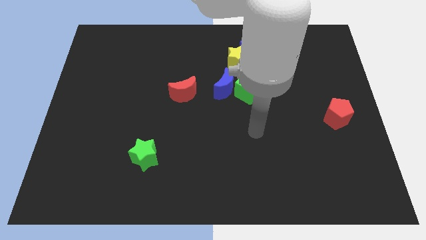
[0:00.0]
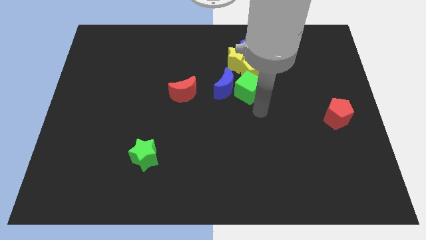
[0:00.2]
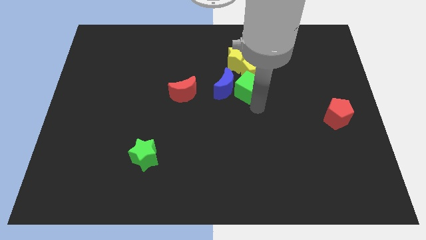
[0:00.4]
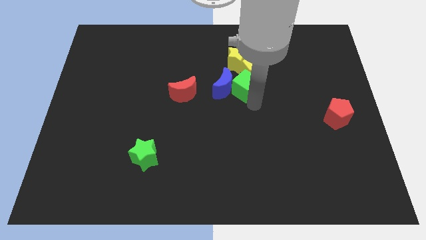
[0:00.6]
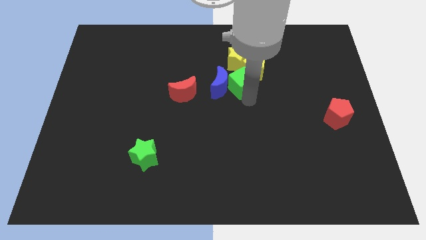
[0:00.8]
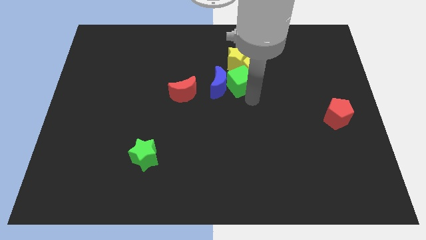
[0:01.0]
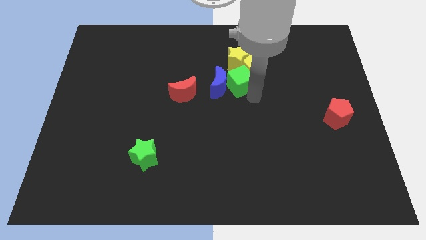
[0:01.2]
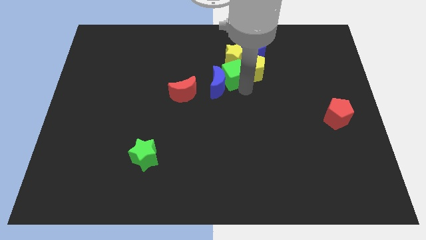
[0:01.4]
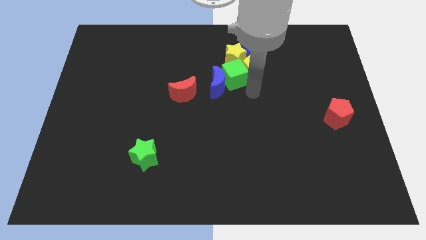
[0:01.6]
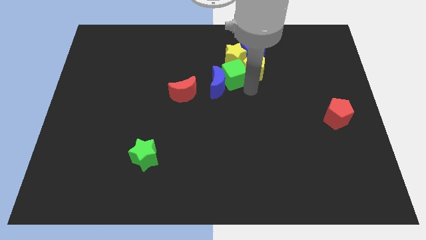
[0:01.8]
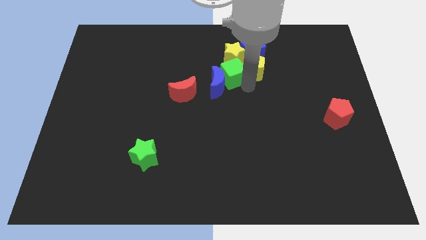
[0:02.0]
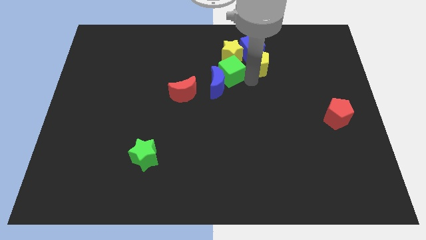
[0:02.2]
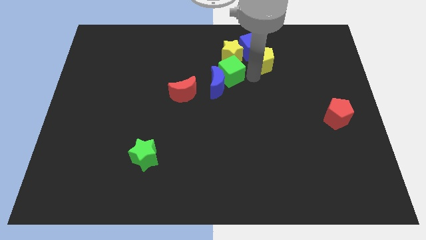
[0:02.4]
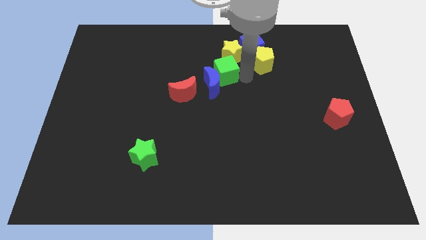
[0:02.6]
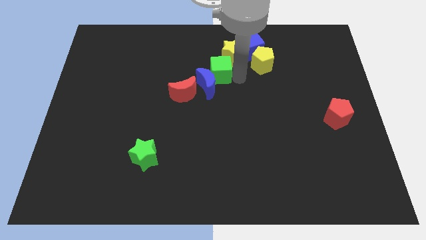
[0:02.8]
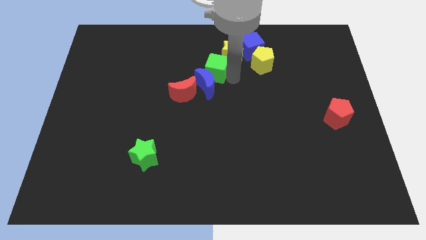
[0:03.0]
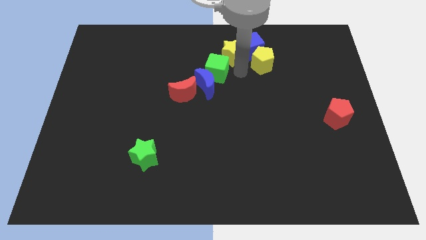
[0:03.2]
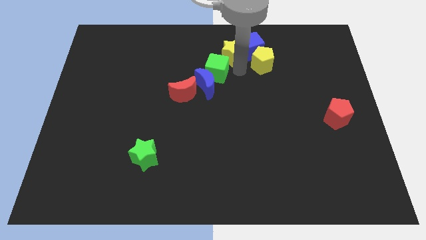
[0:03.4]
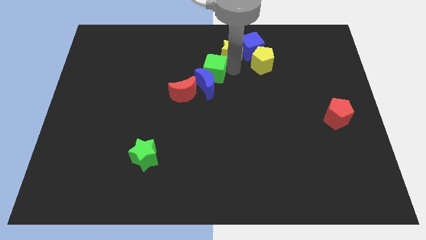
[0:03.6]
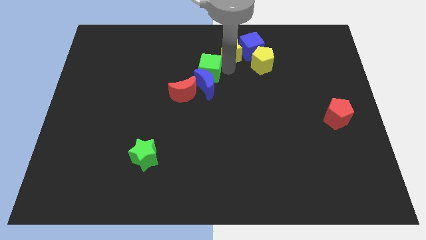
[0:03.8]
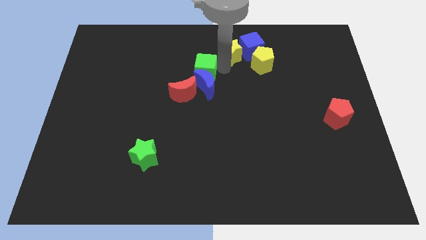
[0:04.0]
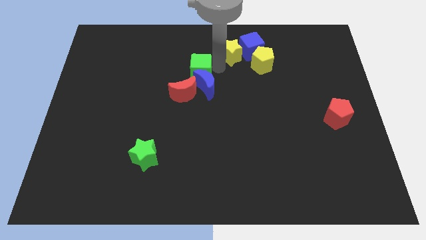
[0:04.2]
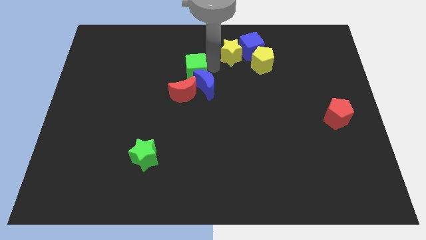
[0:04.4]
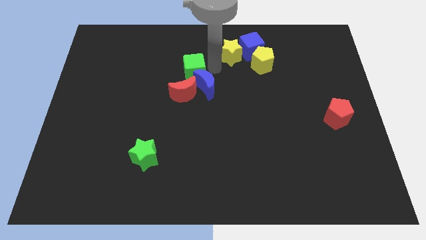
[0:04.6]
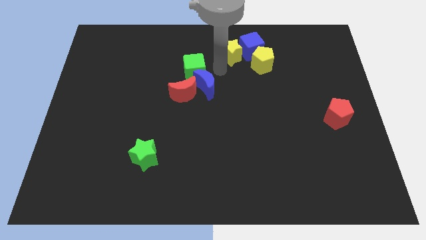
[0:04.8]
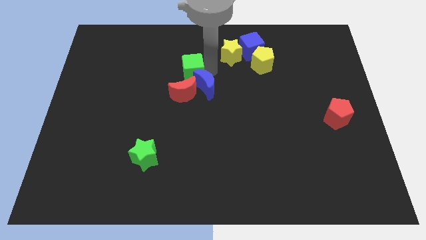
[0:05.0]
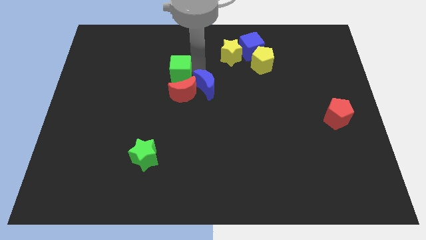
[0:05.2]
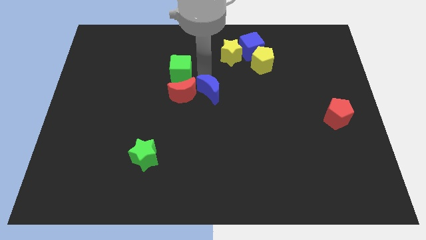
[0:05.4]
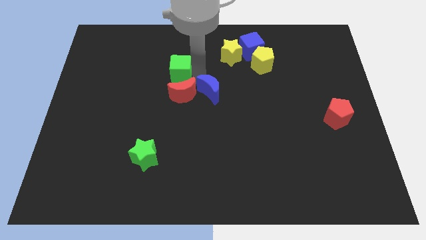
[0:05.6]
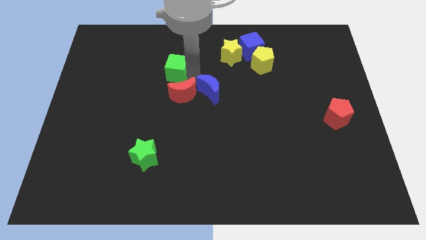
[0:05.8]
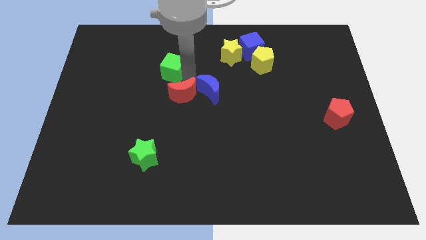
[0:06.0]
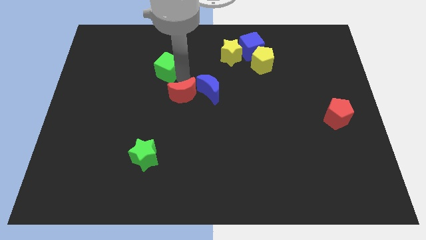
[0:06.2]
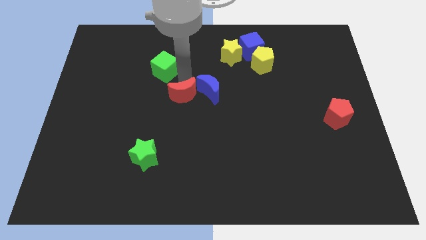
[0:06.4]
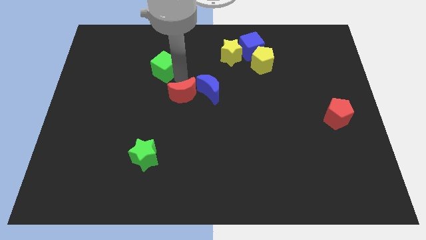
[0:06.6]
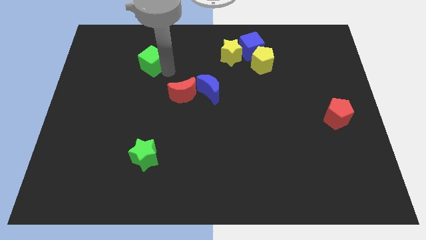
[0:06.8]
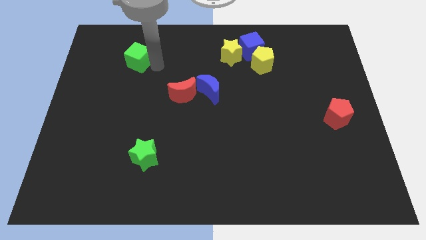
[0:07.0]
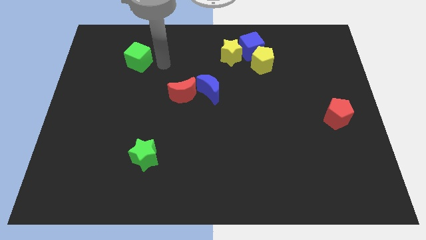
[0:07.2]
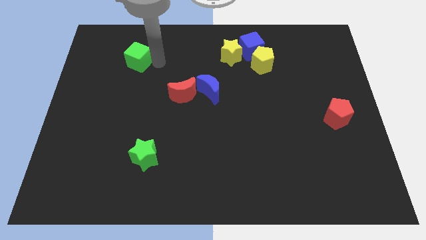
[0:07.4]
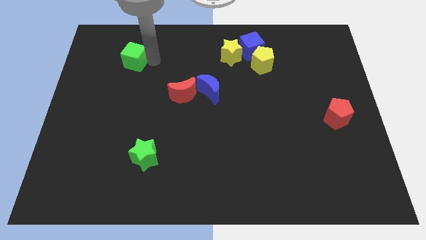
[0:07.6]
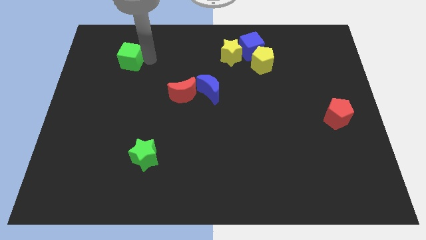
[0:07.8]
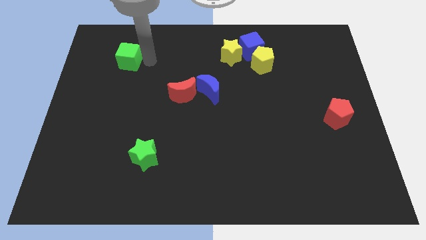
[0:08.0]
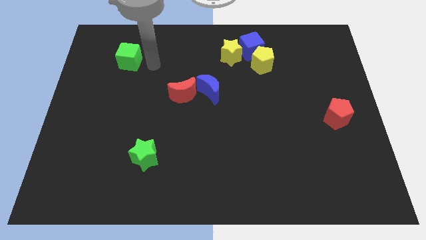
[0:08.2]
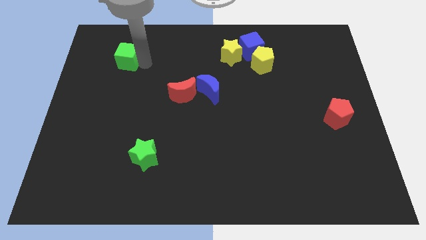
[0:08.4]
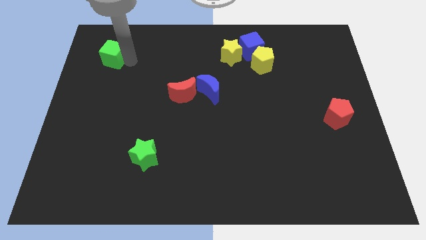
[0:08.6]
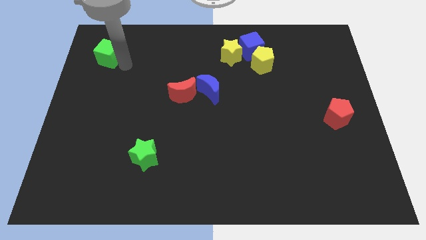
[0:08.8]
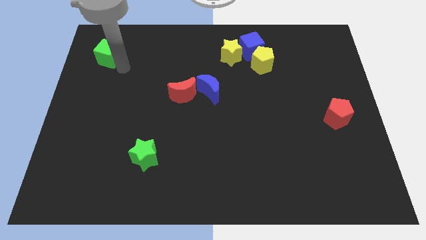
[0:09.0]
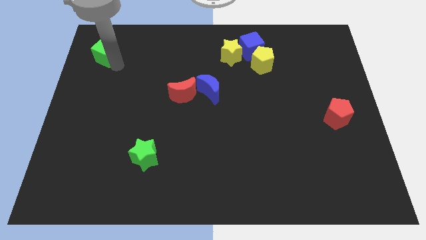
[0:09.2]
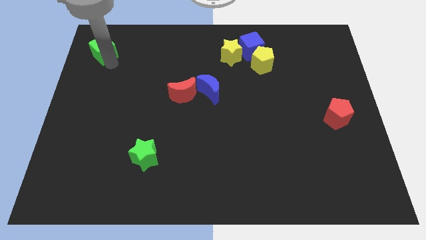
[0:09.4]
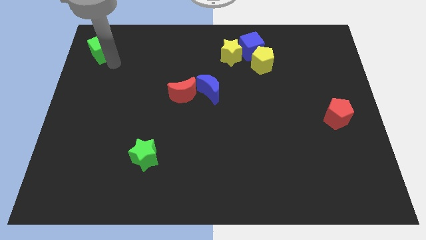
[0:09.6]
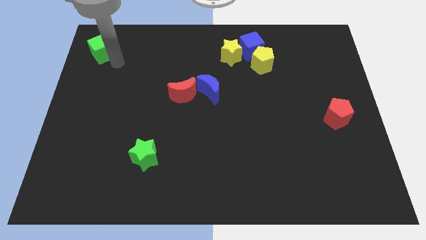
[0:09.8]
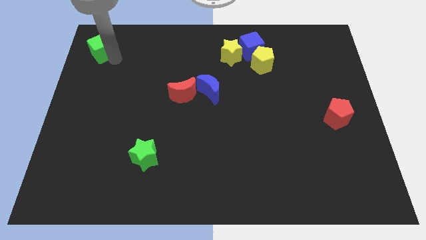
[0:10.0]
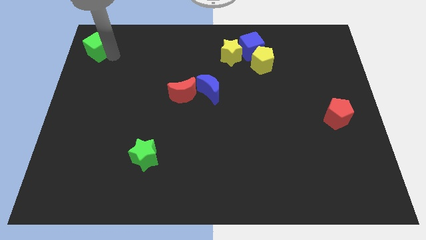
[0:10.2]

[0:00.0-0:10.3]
move the green cube to the top left corner

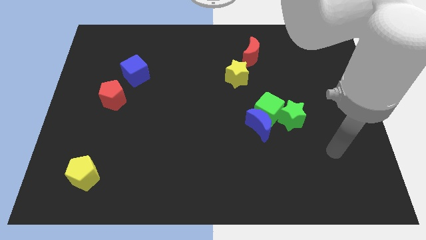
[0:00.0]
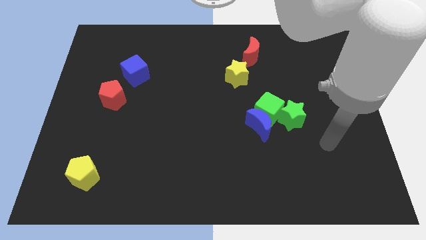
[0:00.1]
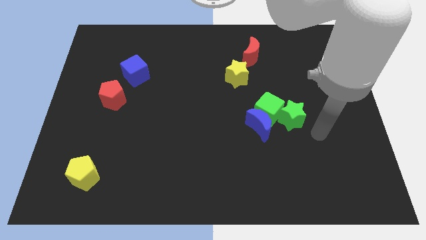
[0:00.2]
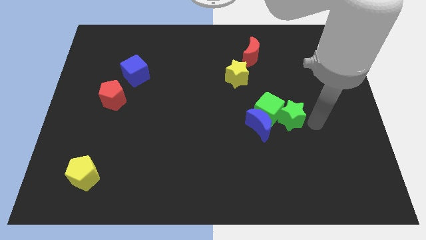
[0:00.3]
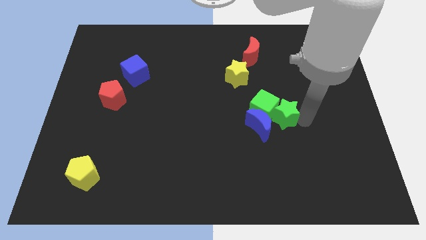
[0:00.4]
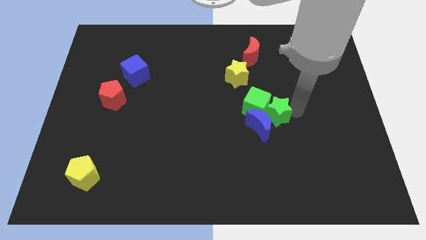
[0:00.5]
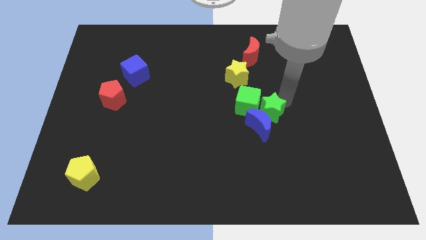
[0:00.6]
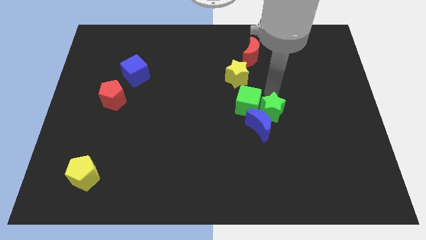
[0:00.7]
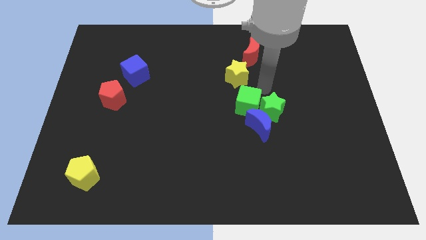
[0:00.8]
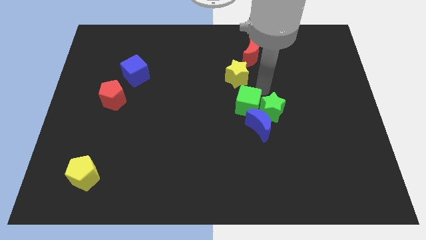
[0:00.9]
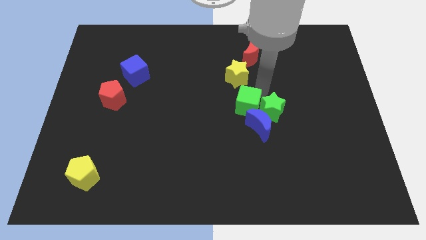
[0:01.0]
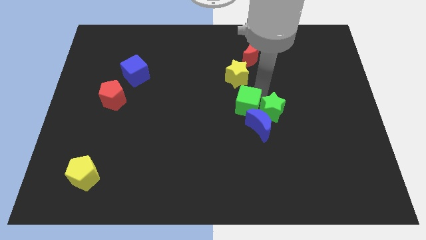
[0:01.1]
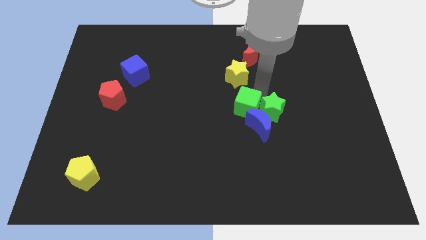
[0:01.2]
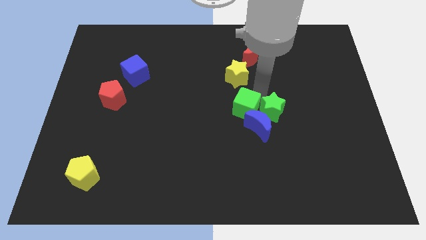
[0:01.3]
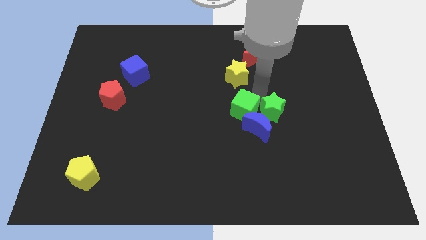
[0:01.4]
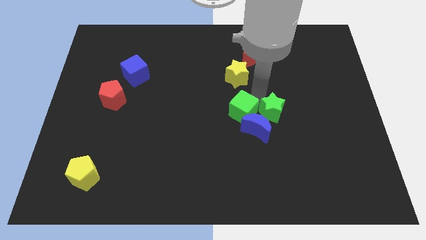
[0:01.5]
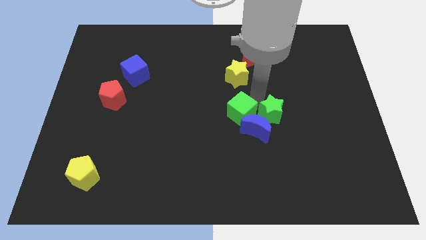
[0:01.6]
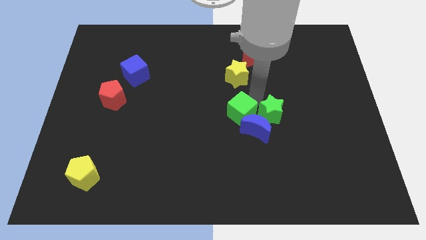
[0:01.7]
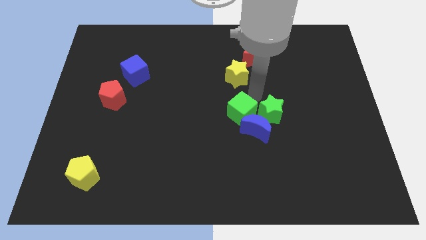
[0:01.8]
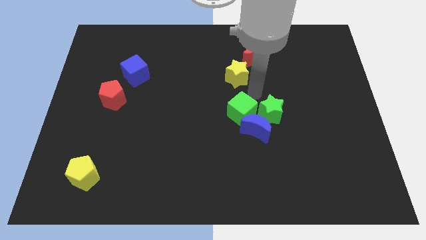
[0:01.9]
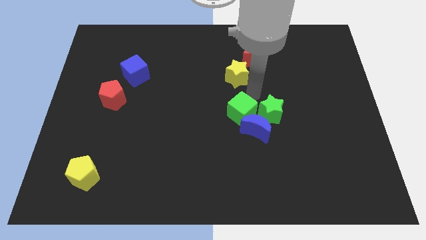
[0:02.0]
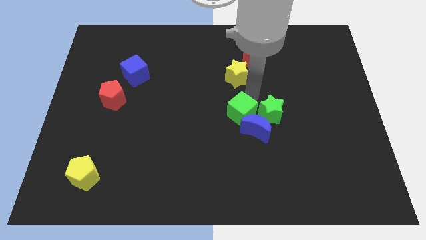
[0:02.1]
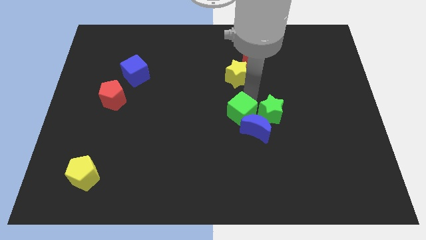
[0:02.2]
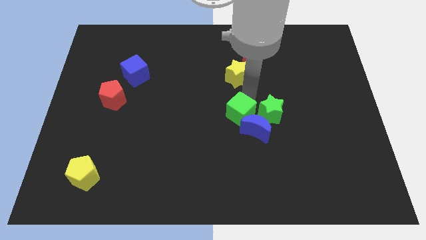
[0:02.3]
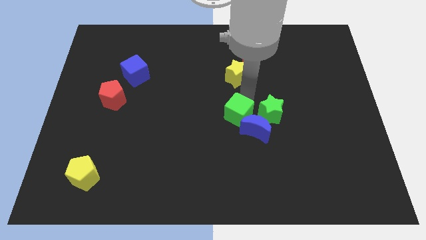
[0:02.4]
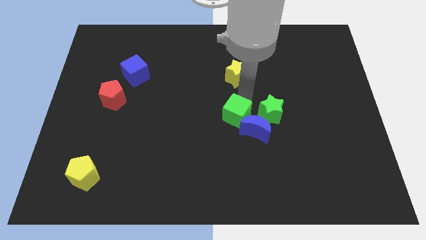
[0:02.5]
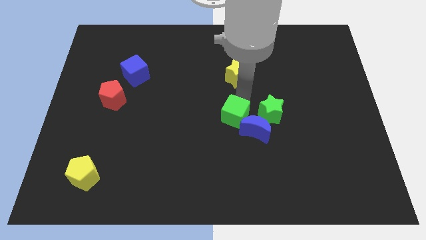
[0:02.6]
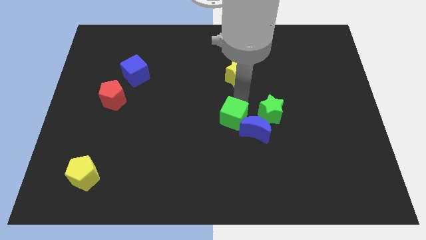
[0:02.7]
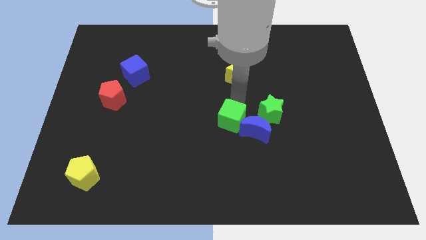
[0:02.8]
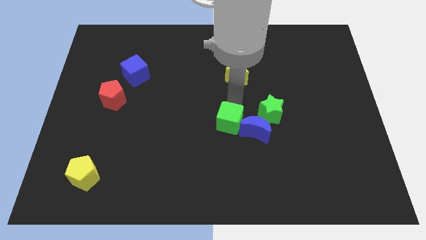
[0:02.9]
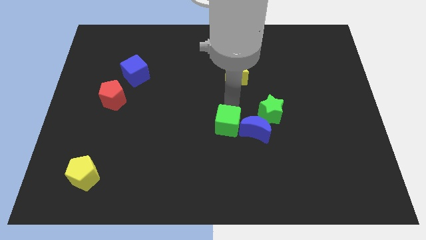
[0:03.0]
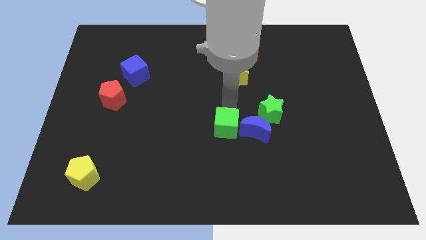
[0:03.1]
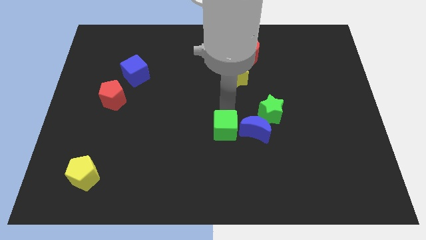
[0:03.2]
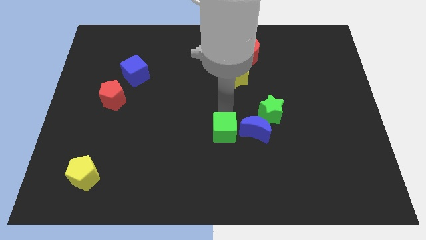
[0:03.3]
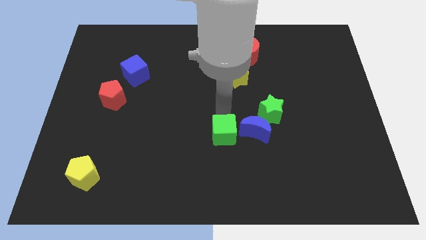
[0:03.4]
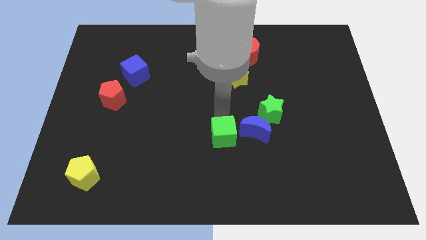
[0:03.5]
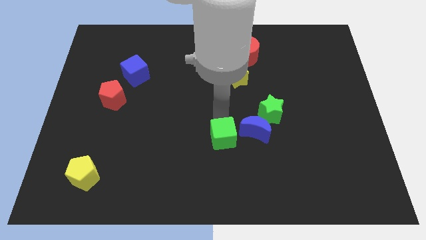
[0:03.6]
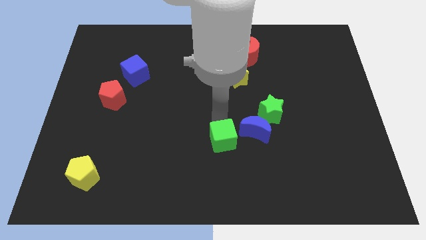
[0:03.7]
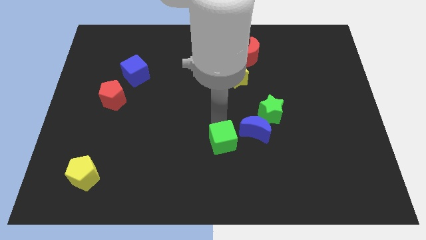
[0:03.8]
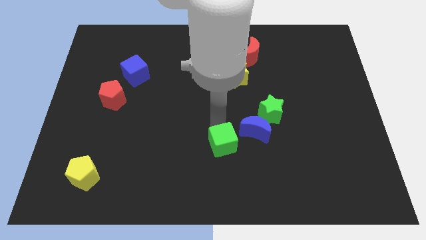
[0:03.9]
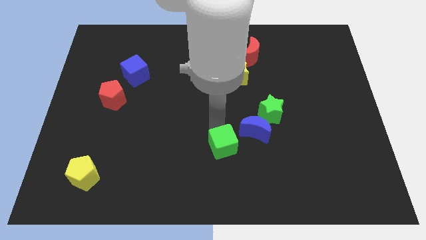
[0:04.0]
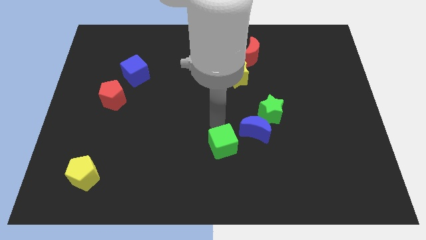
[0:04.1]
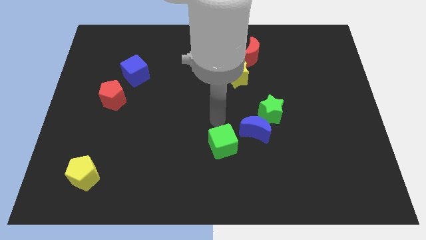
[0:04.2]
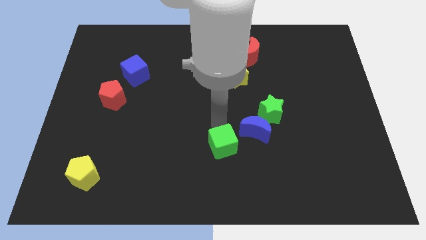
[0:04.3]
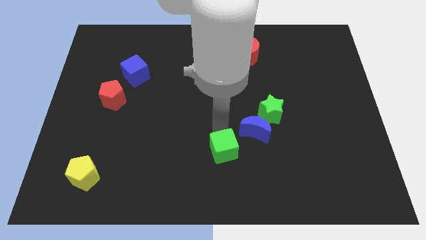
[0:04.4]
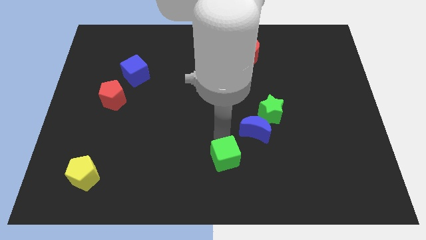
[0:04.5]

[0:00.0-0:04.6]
put the green cube to the bottom
